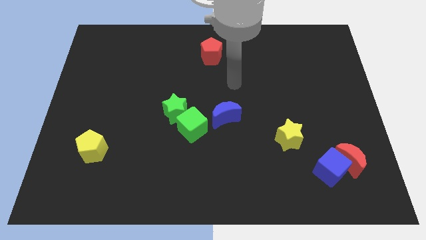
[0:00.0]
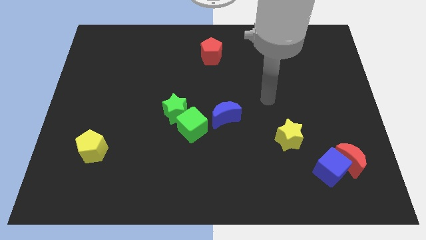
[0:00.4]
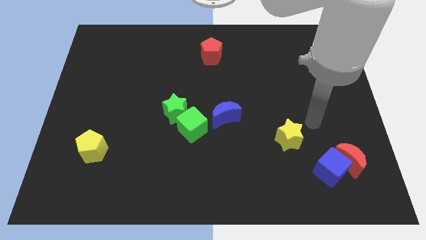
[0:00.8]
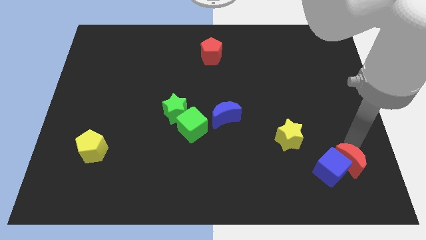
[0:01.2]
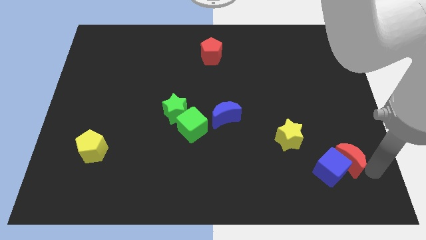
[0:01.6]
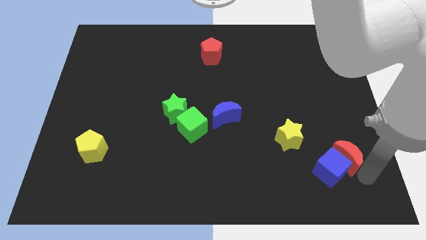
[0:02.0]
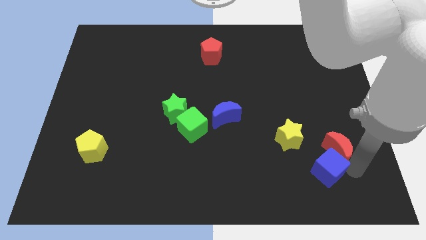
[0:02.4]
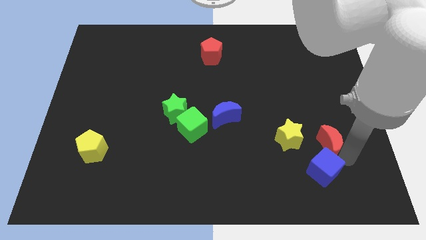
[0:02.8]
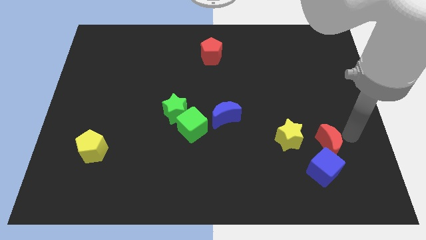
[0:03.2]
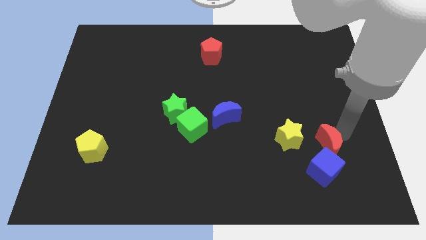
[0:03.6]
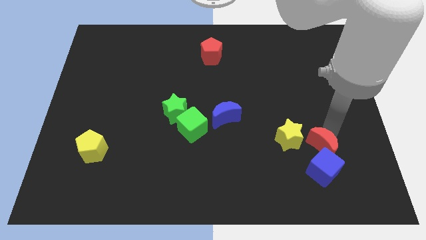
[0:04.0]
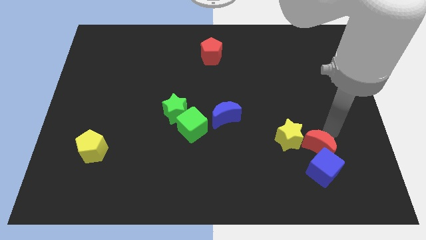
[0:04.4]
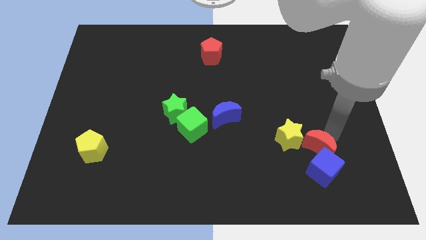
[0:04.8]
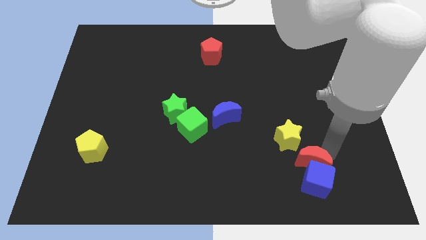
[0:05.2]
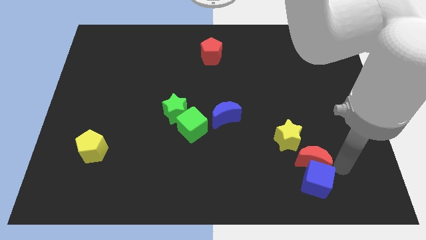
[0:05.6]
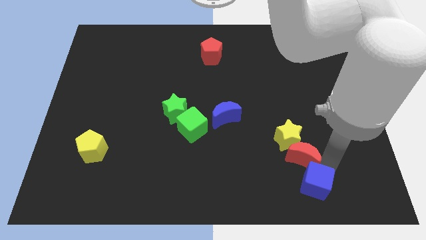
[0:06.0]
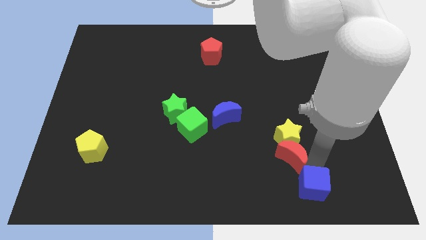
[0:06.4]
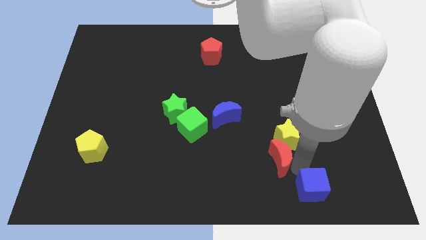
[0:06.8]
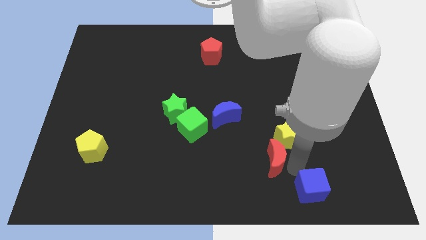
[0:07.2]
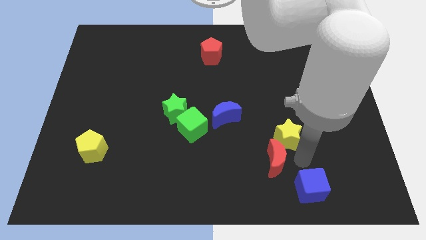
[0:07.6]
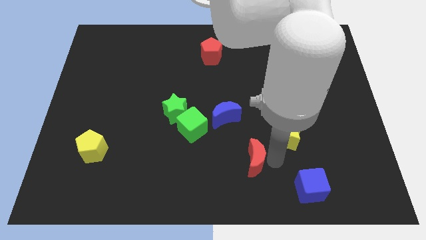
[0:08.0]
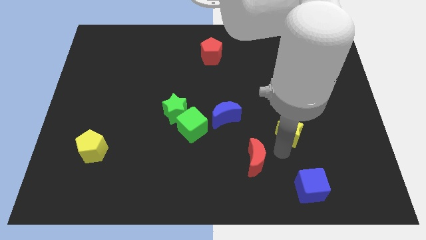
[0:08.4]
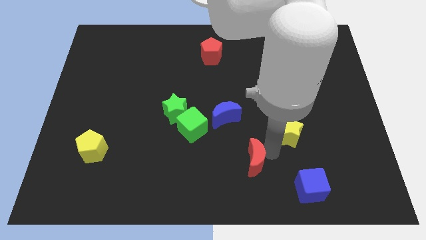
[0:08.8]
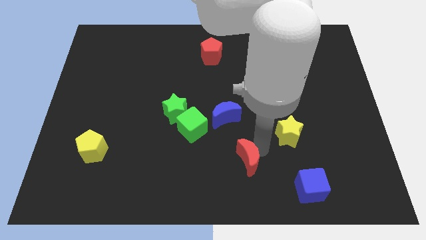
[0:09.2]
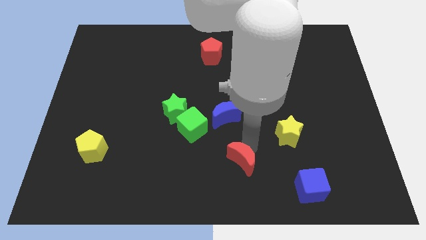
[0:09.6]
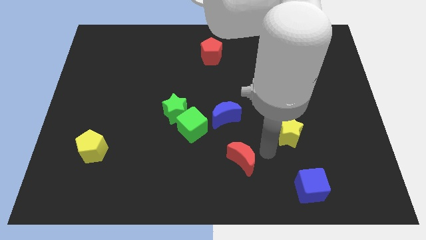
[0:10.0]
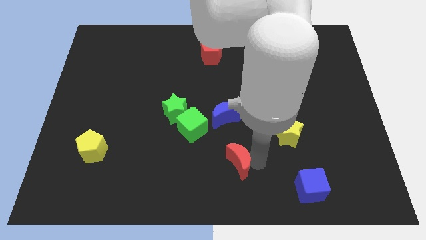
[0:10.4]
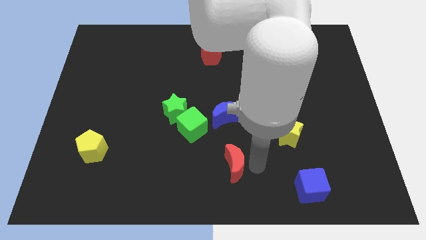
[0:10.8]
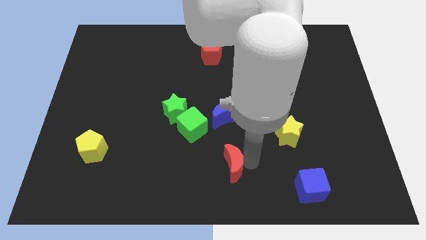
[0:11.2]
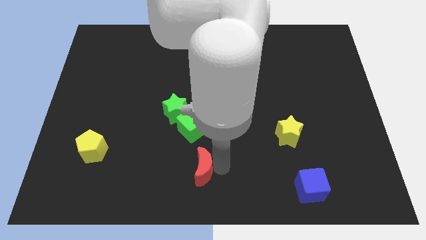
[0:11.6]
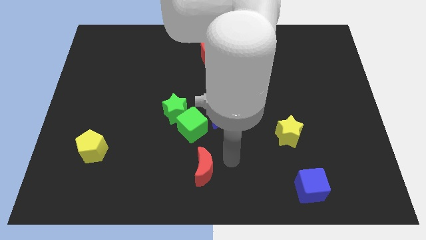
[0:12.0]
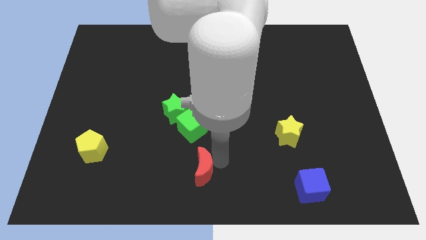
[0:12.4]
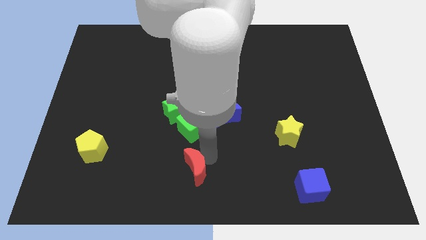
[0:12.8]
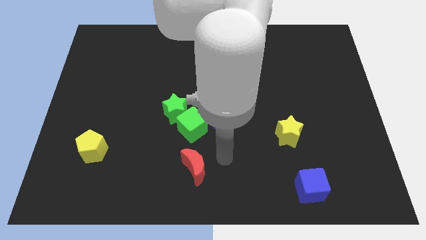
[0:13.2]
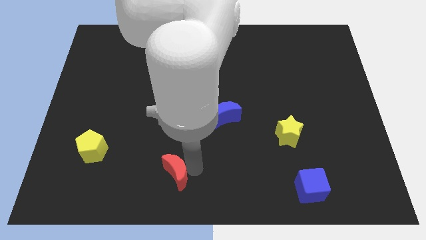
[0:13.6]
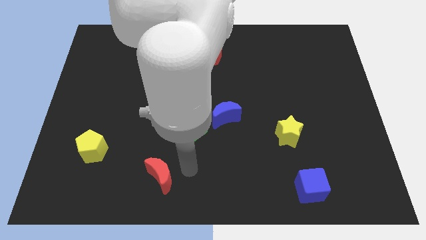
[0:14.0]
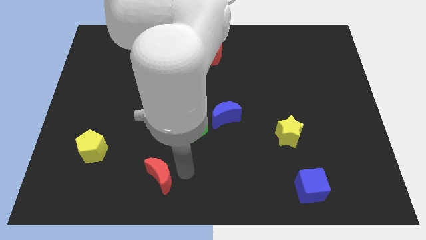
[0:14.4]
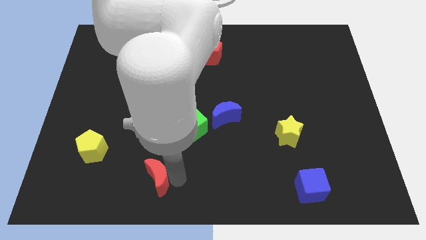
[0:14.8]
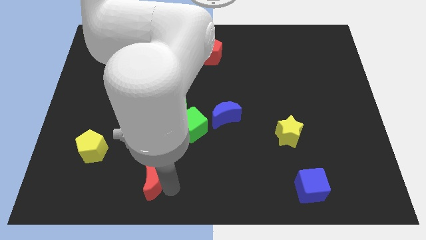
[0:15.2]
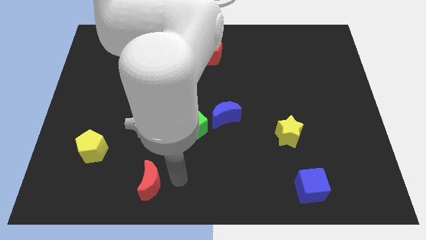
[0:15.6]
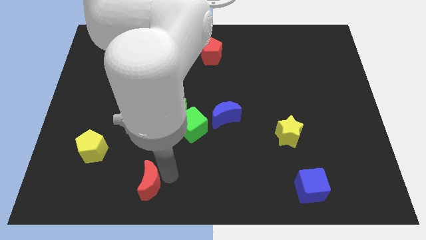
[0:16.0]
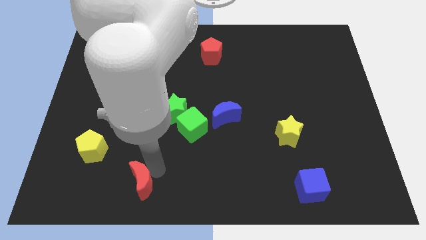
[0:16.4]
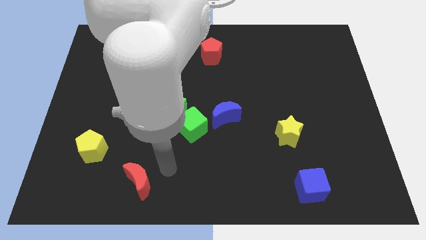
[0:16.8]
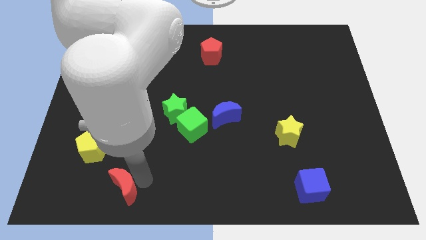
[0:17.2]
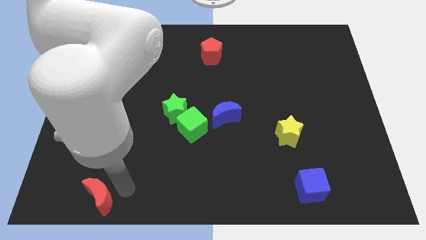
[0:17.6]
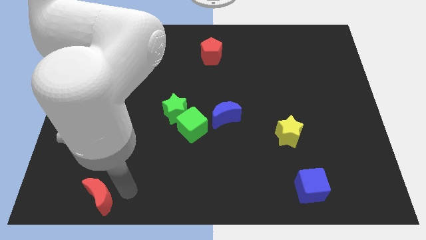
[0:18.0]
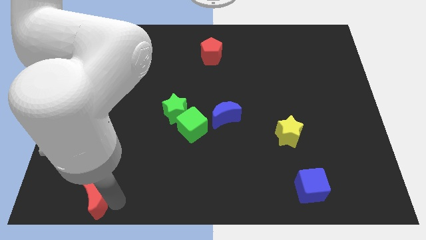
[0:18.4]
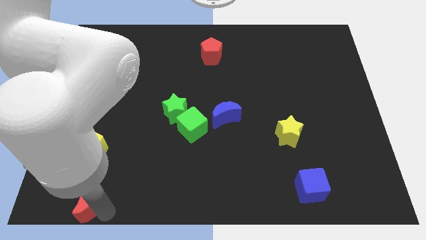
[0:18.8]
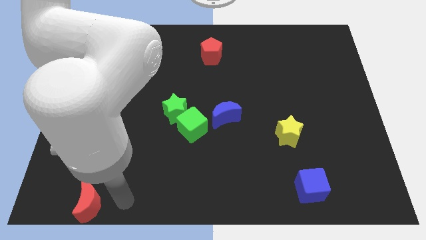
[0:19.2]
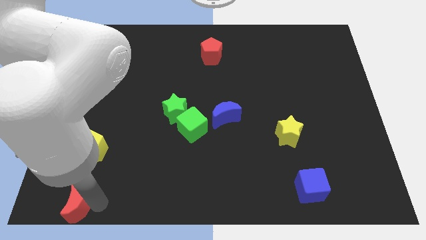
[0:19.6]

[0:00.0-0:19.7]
put the red moon to the bottom left corner

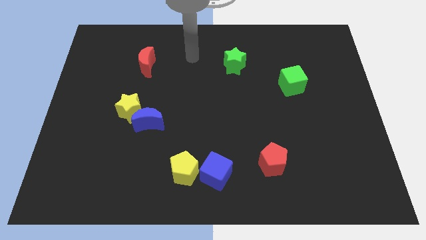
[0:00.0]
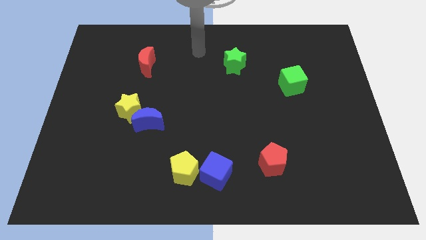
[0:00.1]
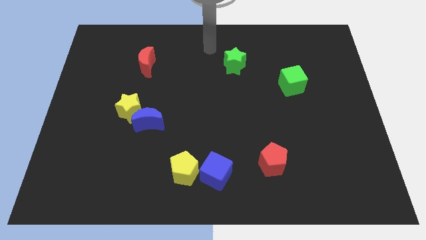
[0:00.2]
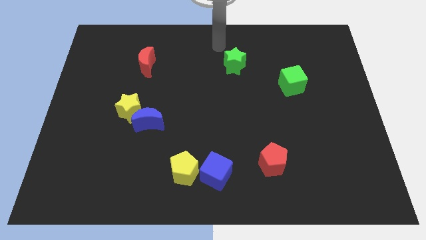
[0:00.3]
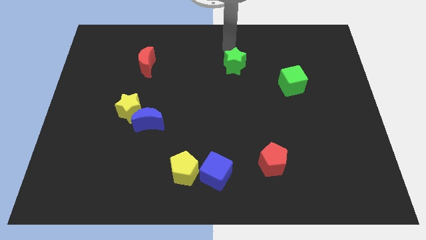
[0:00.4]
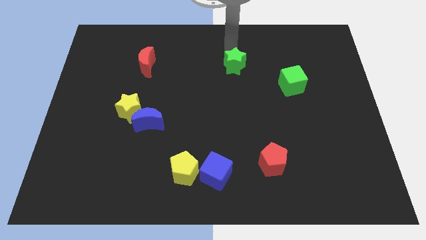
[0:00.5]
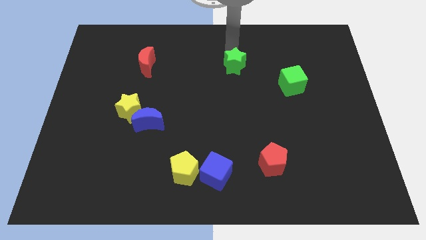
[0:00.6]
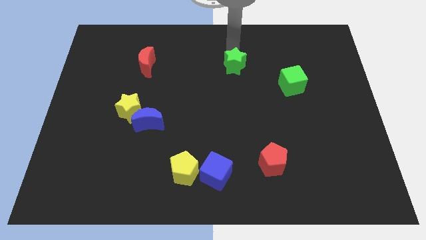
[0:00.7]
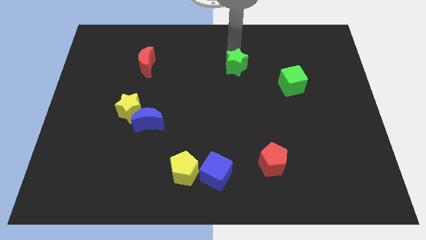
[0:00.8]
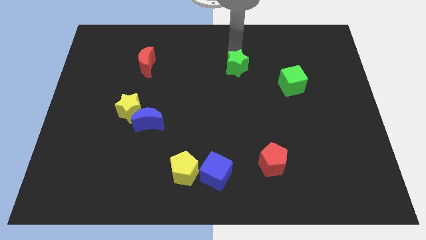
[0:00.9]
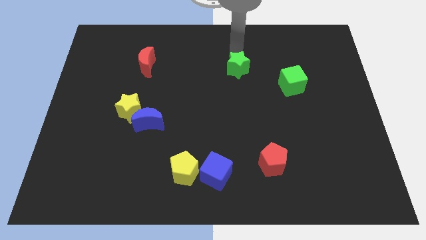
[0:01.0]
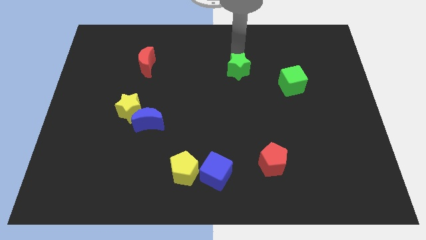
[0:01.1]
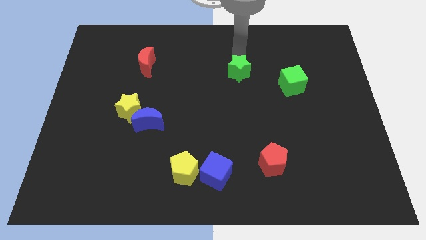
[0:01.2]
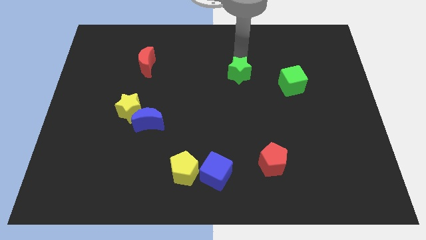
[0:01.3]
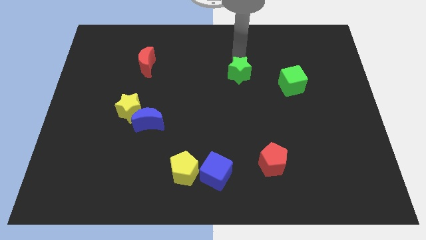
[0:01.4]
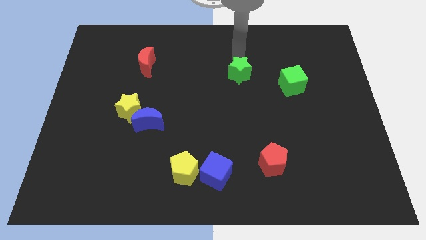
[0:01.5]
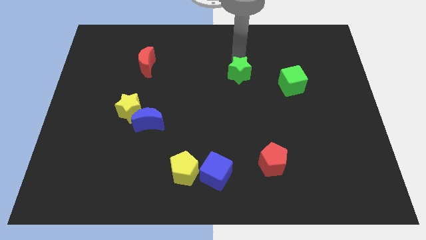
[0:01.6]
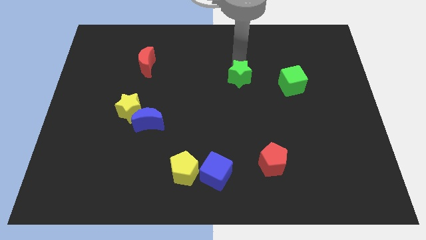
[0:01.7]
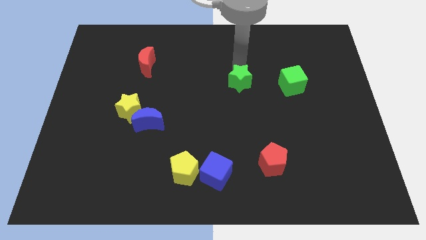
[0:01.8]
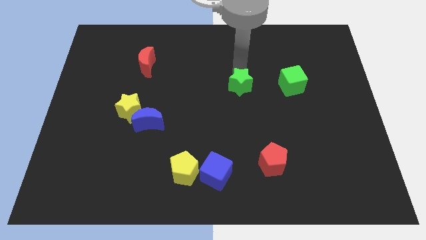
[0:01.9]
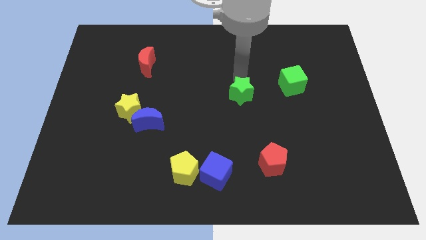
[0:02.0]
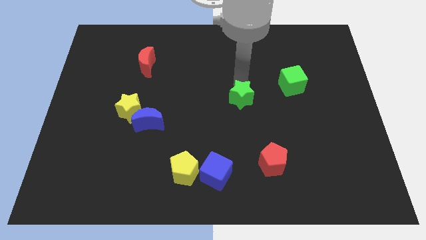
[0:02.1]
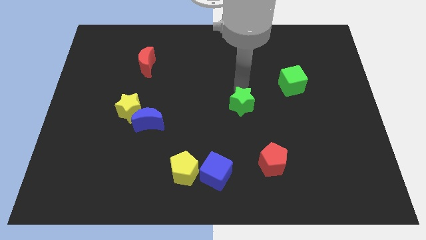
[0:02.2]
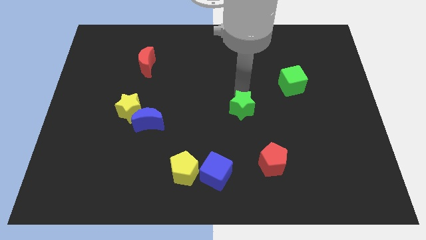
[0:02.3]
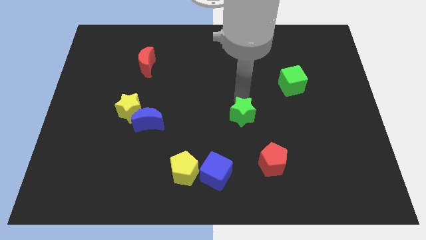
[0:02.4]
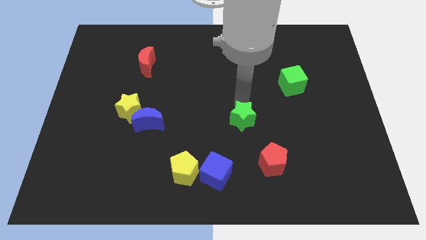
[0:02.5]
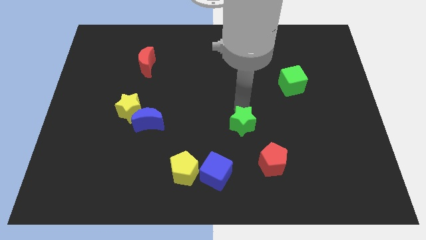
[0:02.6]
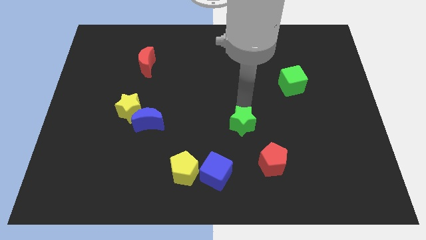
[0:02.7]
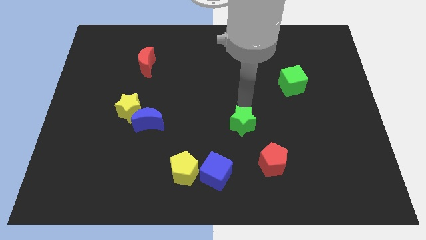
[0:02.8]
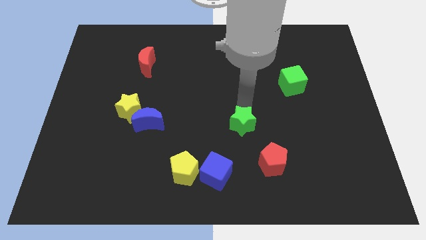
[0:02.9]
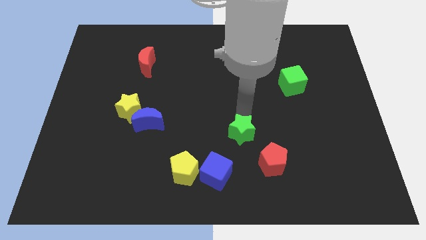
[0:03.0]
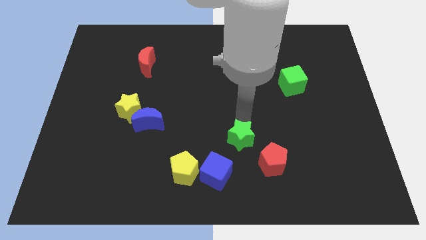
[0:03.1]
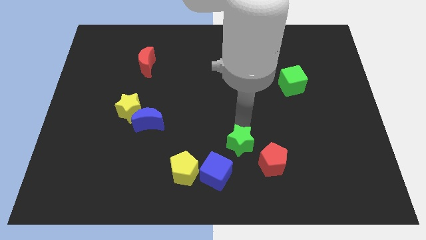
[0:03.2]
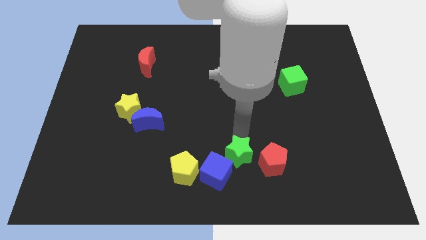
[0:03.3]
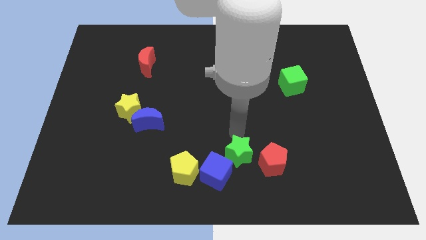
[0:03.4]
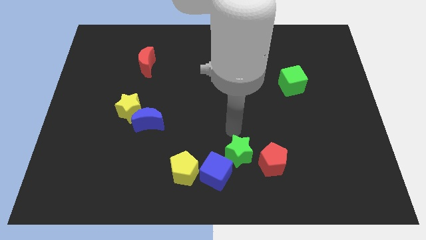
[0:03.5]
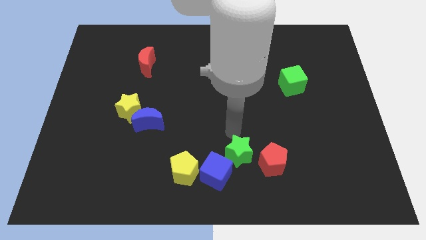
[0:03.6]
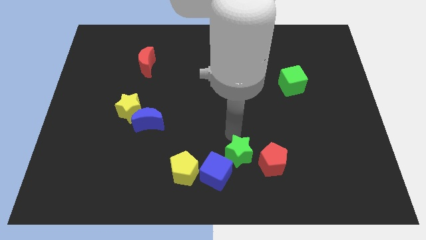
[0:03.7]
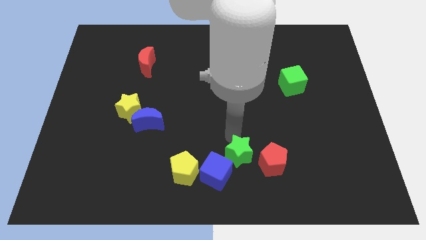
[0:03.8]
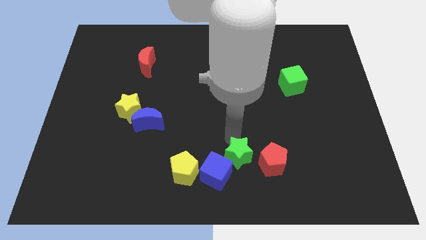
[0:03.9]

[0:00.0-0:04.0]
push the green star to the bottom
